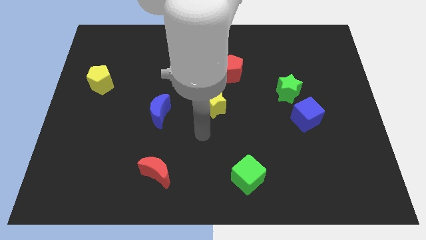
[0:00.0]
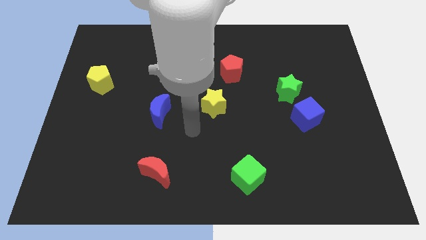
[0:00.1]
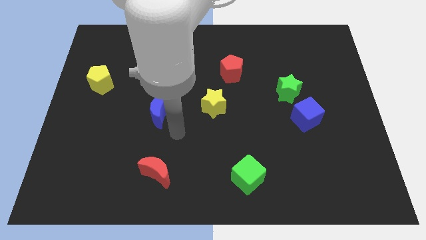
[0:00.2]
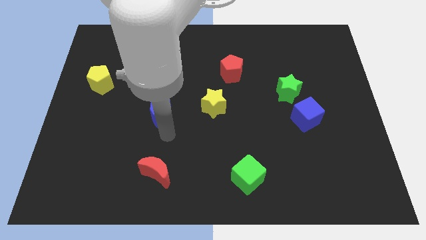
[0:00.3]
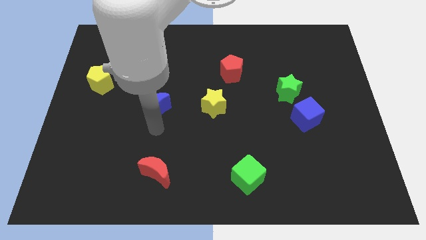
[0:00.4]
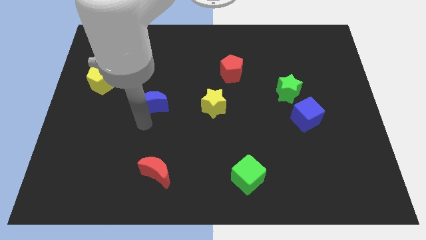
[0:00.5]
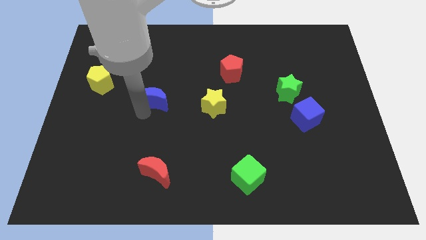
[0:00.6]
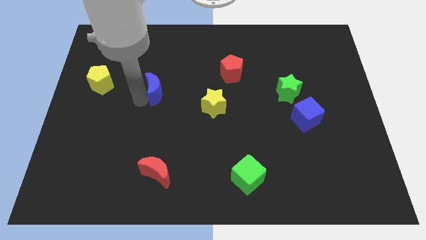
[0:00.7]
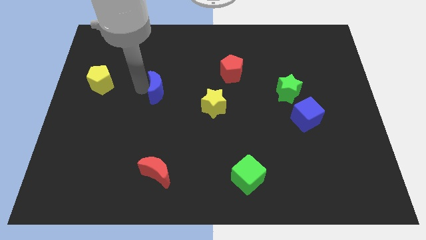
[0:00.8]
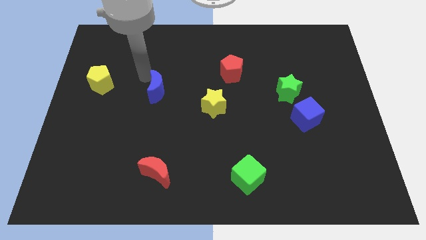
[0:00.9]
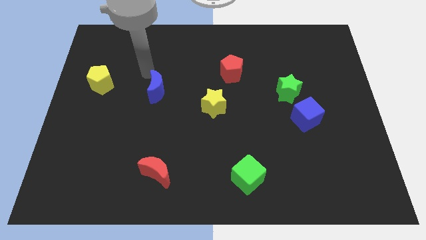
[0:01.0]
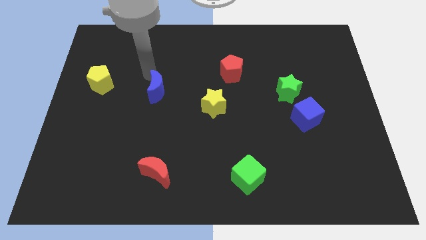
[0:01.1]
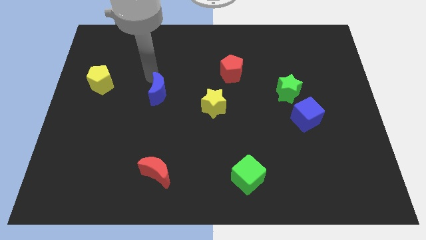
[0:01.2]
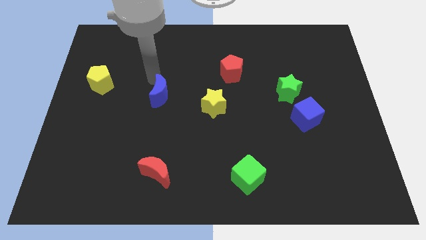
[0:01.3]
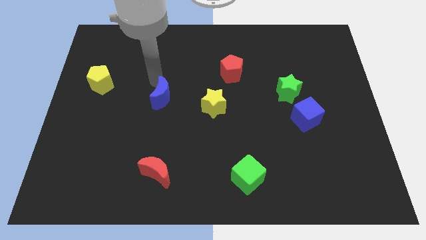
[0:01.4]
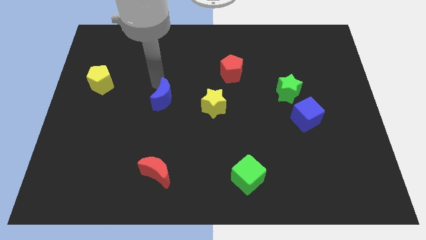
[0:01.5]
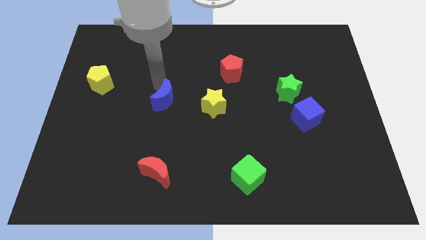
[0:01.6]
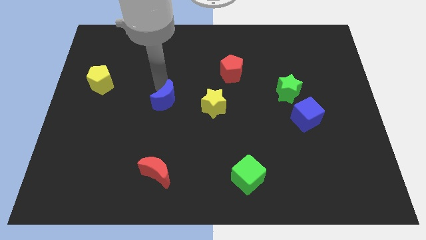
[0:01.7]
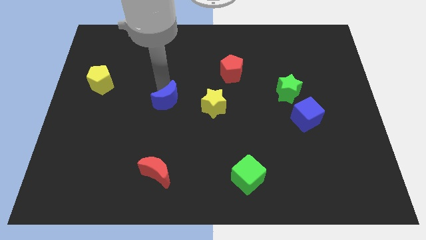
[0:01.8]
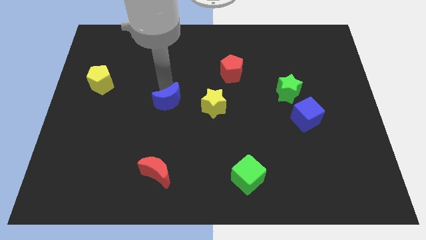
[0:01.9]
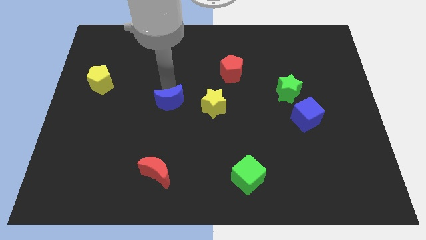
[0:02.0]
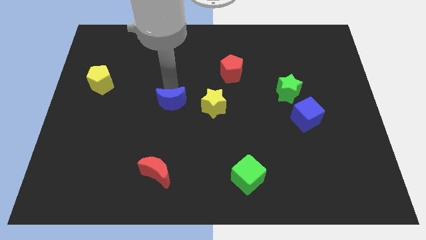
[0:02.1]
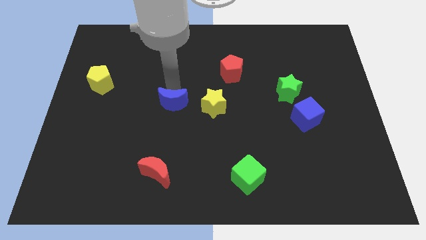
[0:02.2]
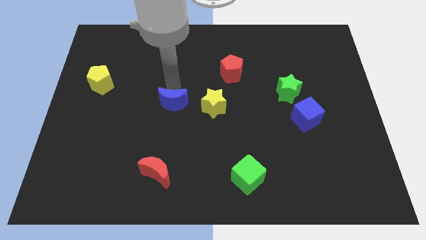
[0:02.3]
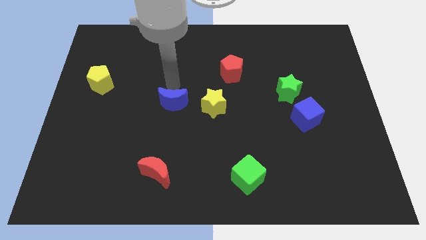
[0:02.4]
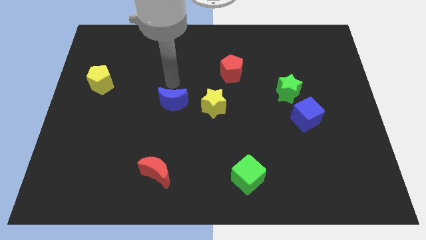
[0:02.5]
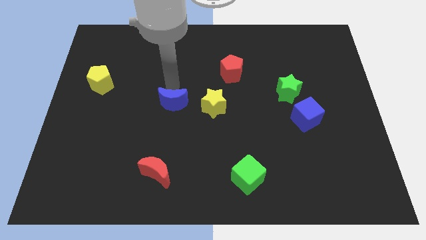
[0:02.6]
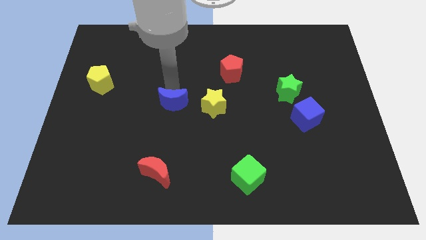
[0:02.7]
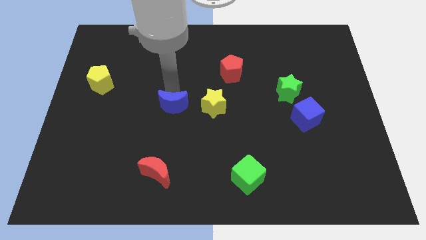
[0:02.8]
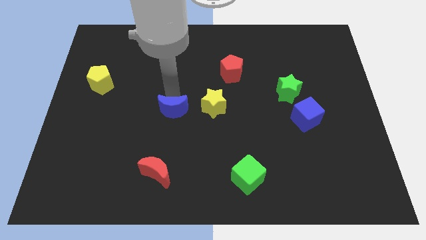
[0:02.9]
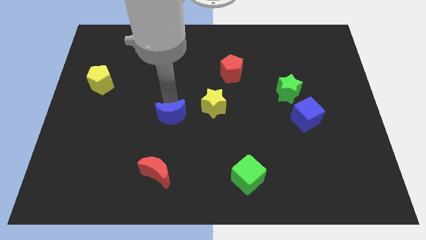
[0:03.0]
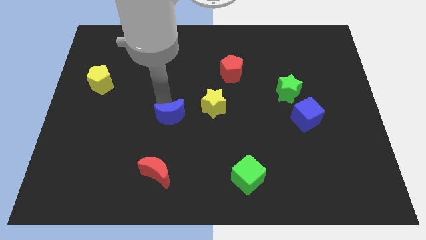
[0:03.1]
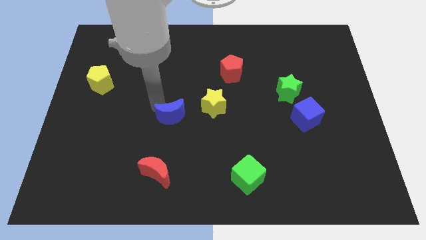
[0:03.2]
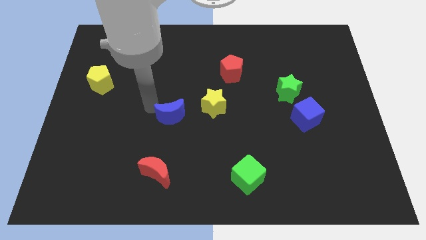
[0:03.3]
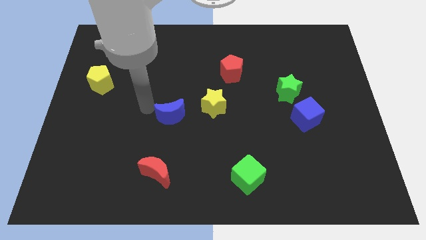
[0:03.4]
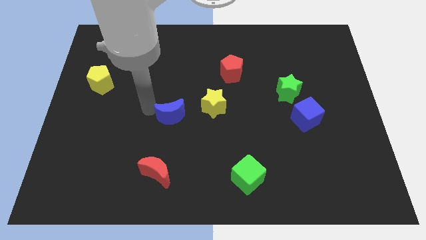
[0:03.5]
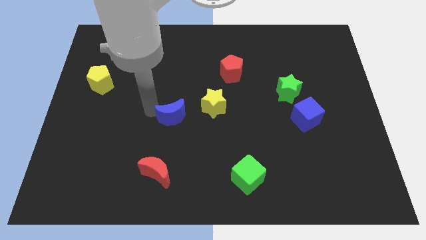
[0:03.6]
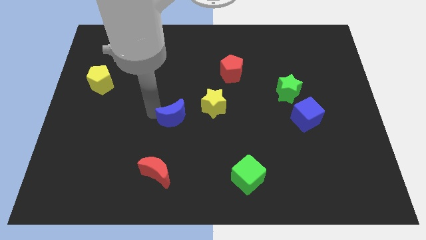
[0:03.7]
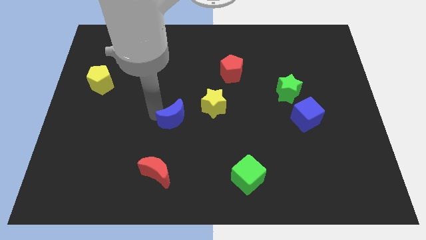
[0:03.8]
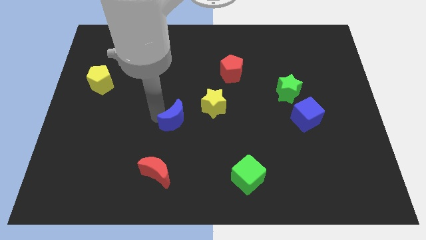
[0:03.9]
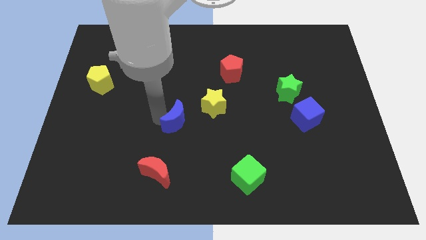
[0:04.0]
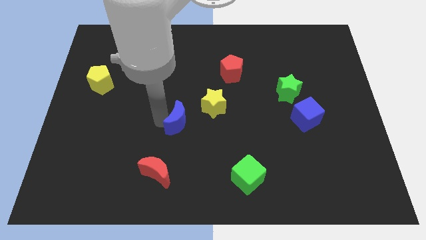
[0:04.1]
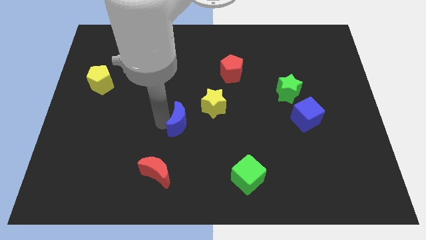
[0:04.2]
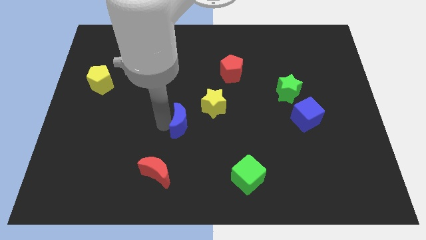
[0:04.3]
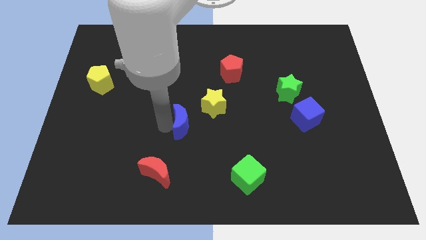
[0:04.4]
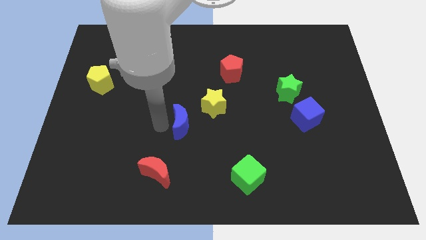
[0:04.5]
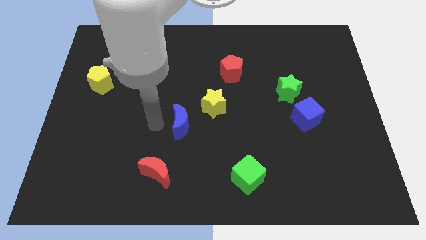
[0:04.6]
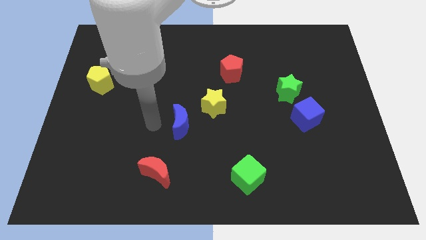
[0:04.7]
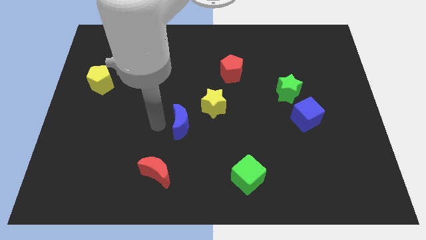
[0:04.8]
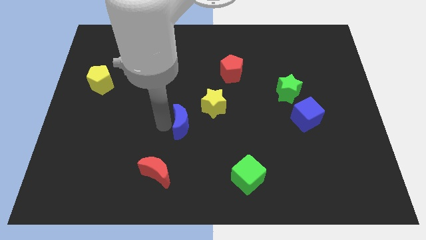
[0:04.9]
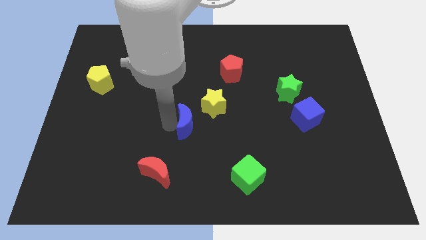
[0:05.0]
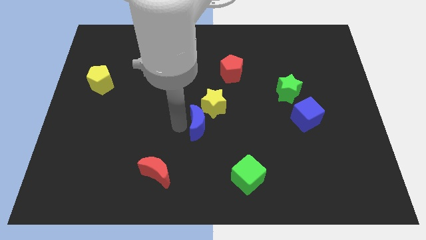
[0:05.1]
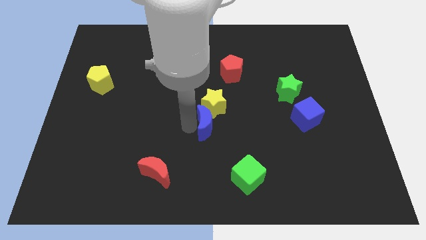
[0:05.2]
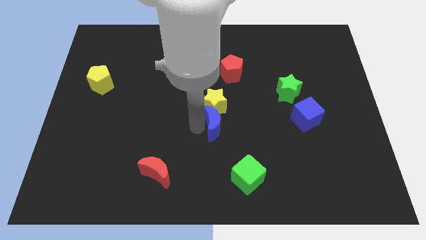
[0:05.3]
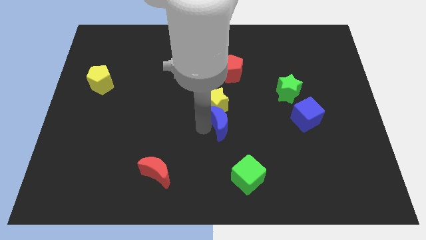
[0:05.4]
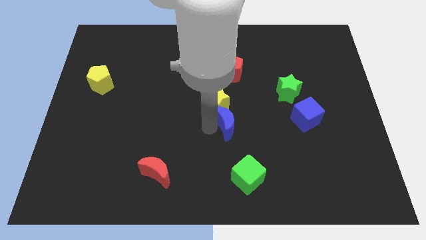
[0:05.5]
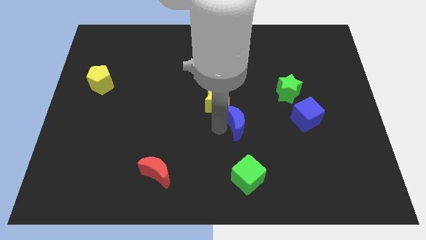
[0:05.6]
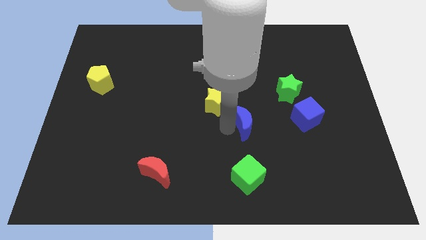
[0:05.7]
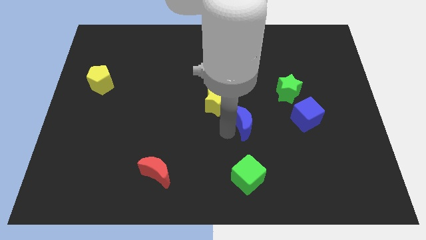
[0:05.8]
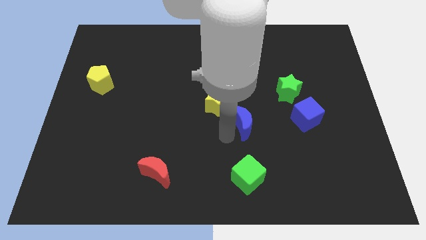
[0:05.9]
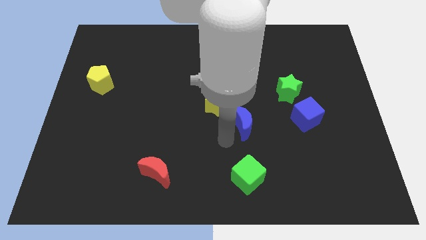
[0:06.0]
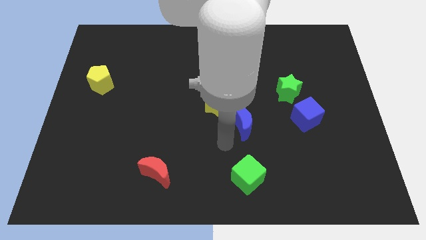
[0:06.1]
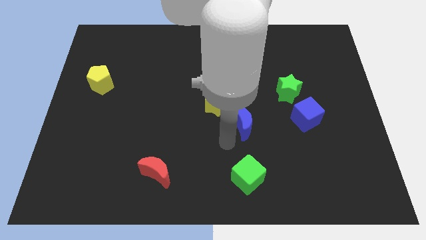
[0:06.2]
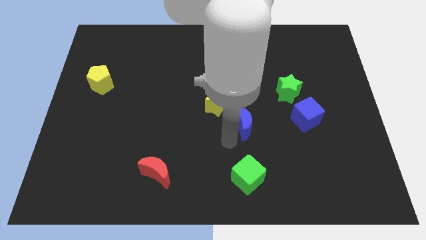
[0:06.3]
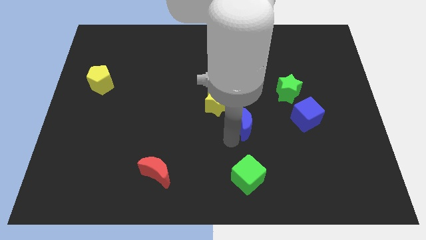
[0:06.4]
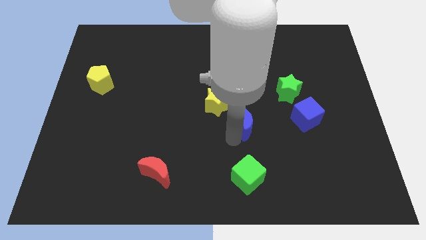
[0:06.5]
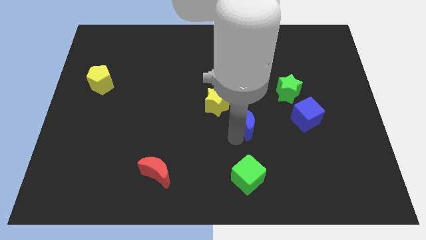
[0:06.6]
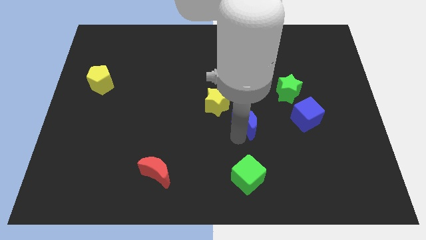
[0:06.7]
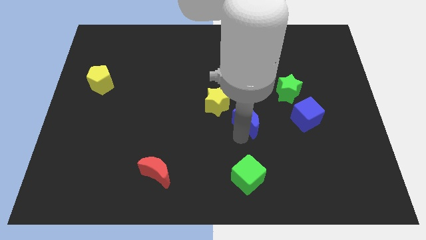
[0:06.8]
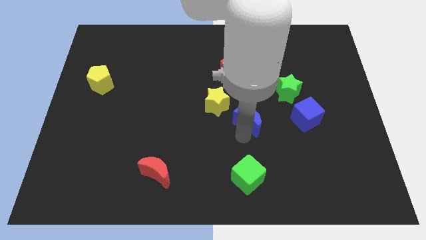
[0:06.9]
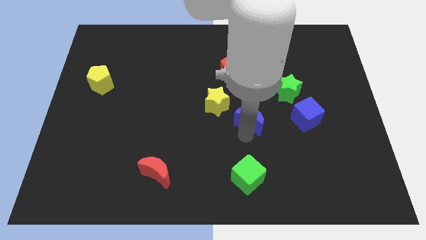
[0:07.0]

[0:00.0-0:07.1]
push the blue moon to the bottom left side of the green star
